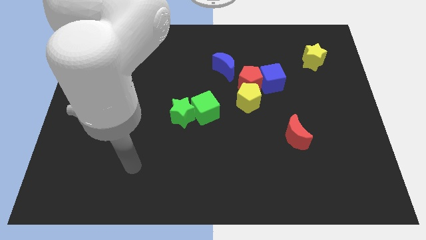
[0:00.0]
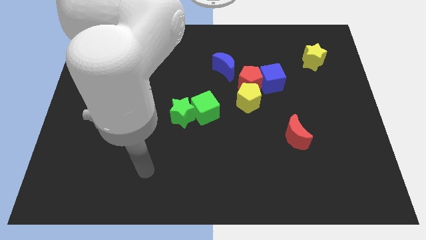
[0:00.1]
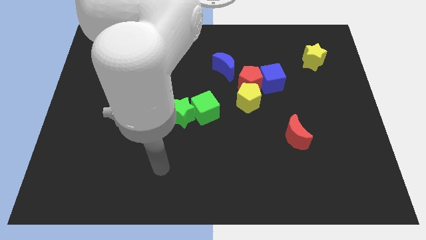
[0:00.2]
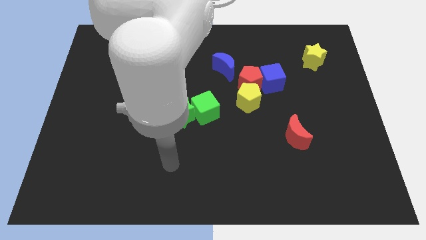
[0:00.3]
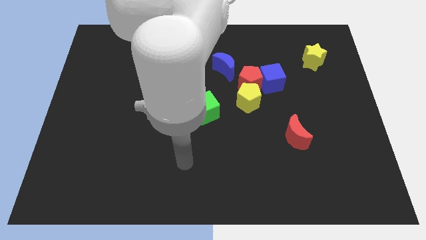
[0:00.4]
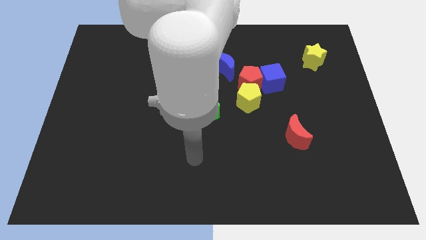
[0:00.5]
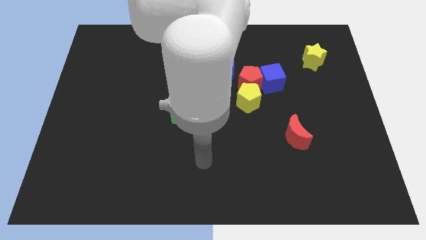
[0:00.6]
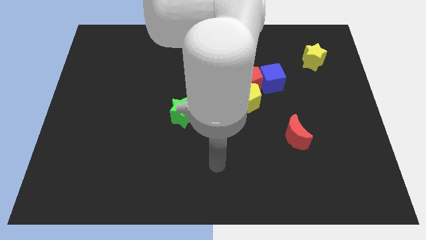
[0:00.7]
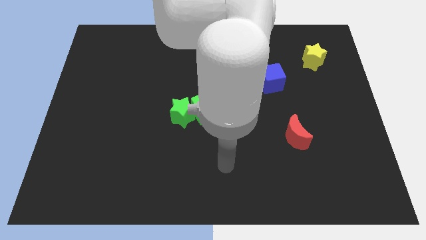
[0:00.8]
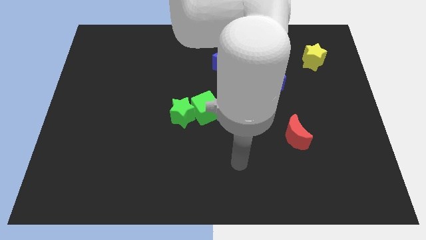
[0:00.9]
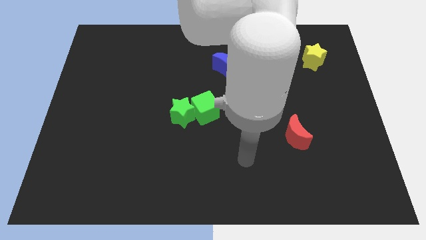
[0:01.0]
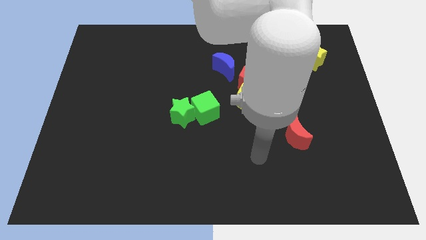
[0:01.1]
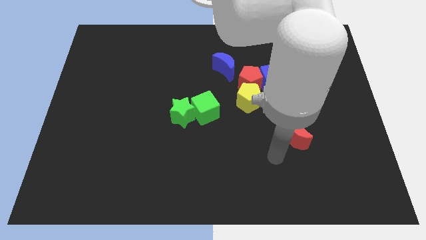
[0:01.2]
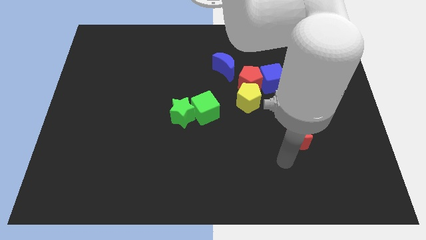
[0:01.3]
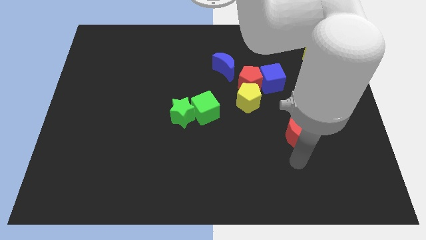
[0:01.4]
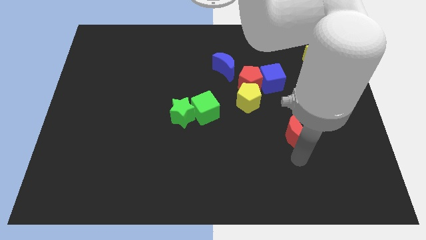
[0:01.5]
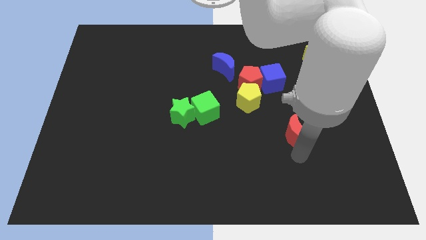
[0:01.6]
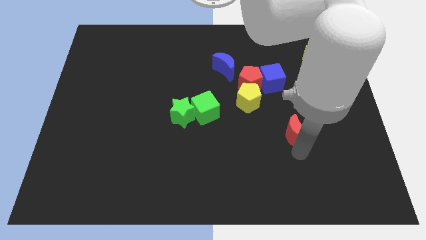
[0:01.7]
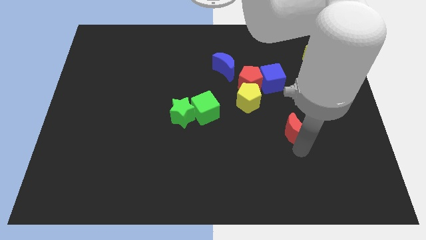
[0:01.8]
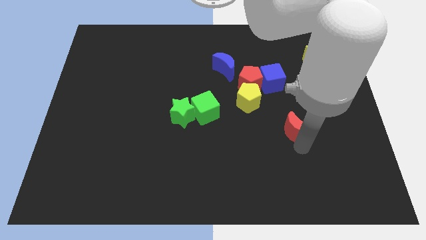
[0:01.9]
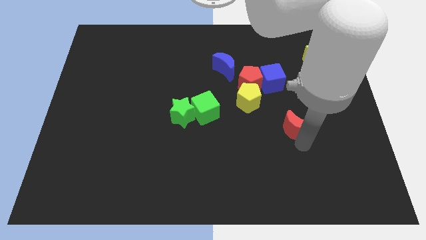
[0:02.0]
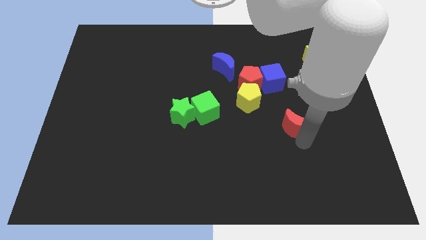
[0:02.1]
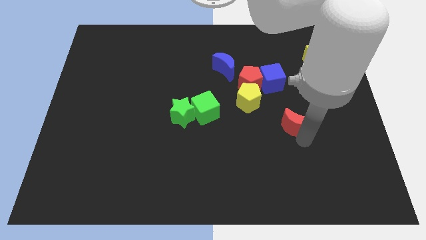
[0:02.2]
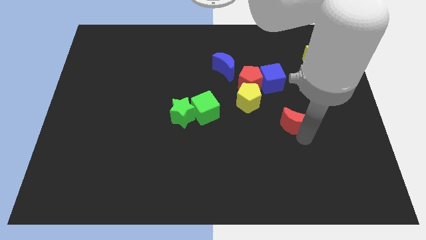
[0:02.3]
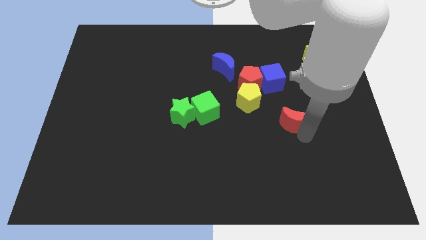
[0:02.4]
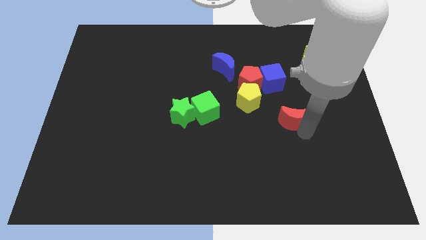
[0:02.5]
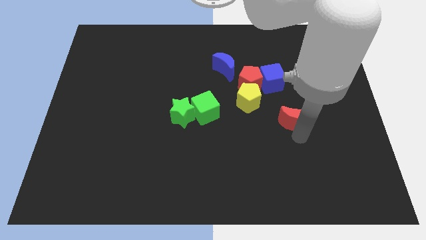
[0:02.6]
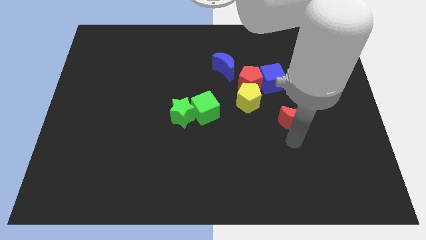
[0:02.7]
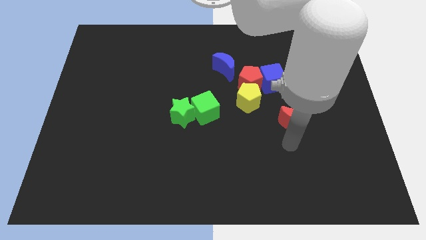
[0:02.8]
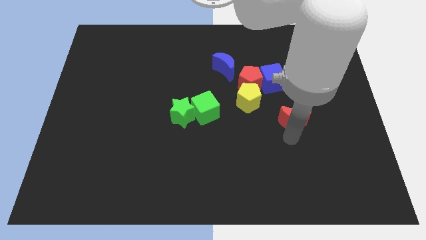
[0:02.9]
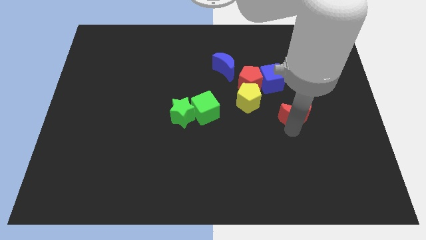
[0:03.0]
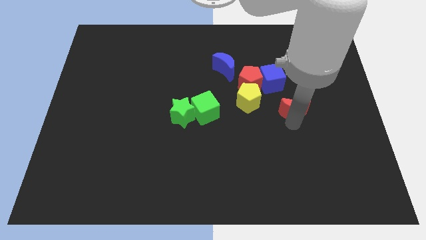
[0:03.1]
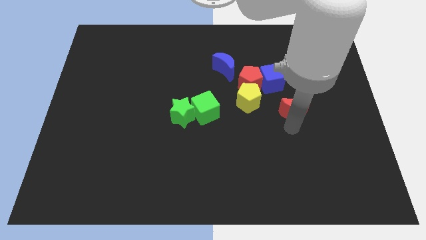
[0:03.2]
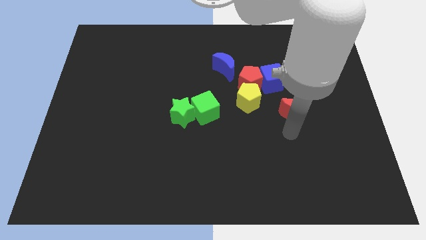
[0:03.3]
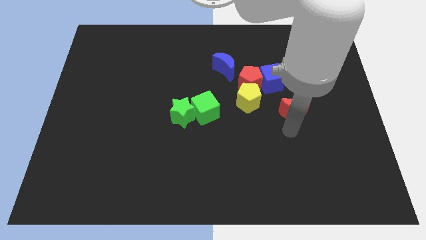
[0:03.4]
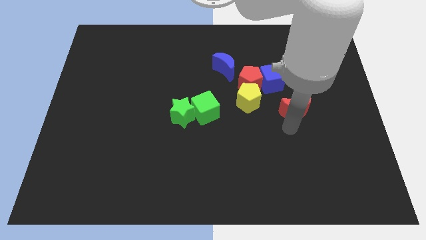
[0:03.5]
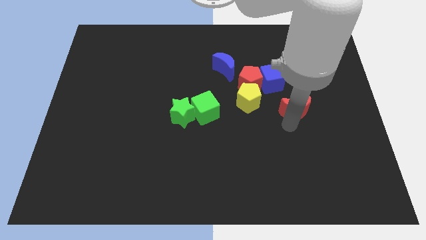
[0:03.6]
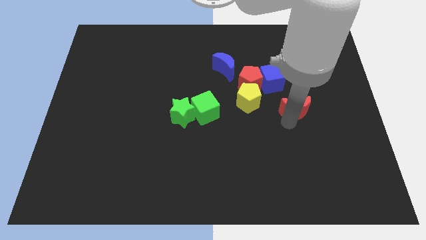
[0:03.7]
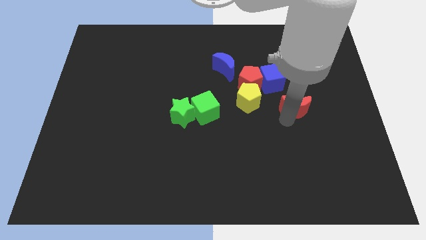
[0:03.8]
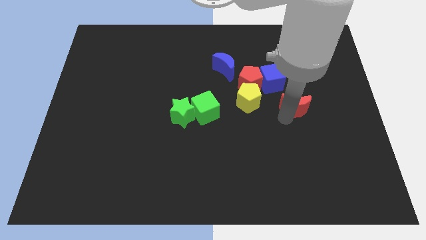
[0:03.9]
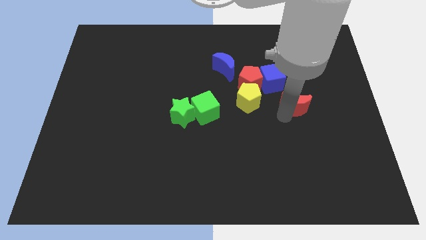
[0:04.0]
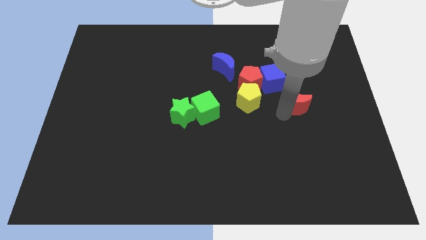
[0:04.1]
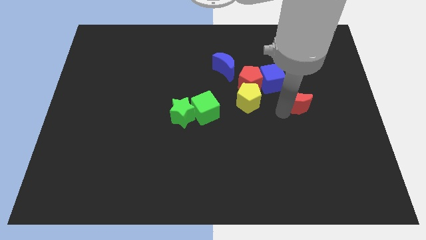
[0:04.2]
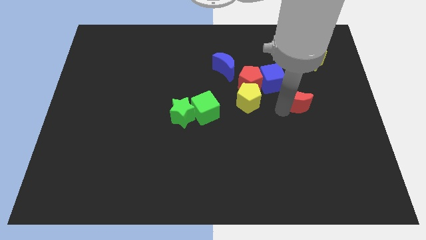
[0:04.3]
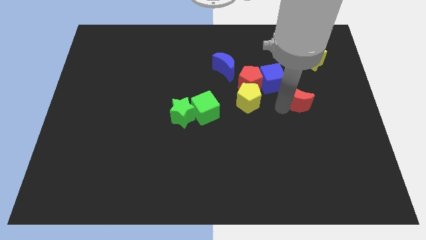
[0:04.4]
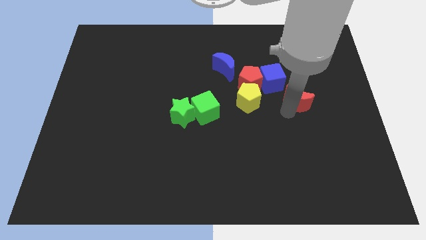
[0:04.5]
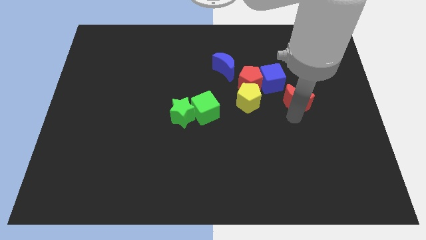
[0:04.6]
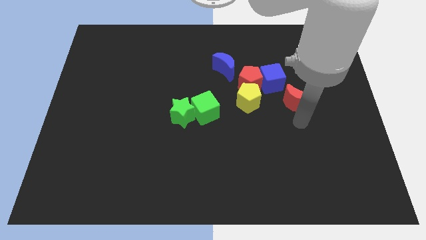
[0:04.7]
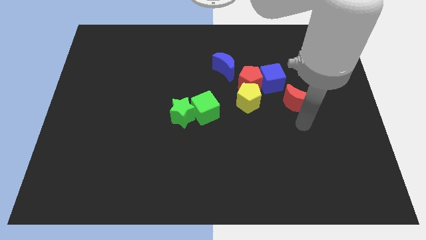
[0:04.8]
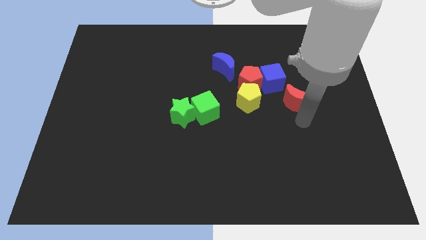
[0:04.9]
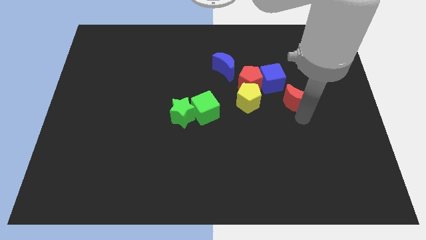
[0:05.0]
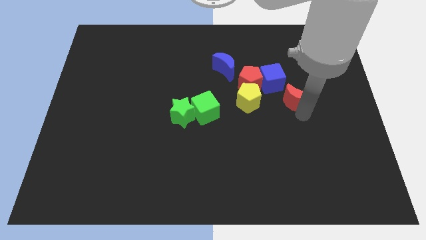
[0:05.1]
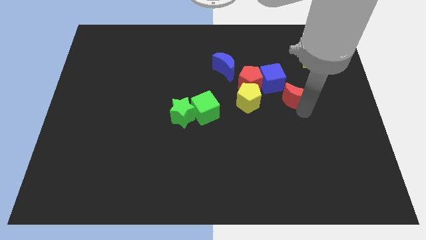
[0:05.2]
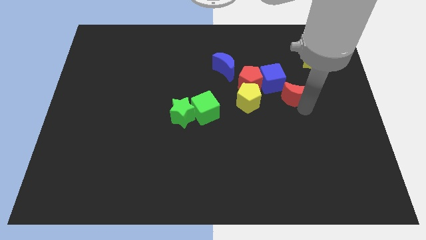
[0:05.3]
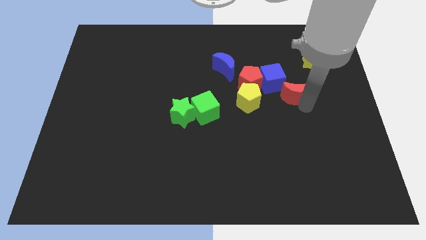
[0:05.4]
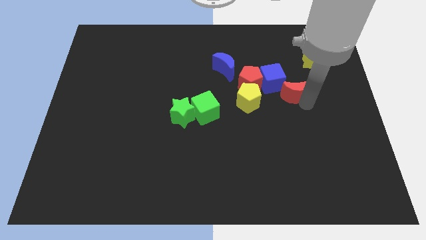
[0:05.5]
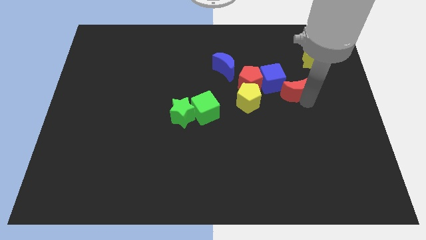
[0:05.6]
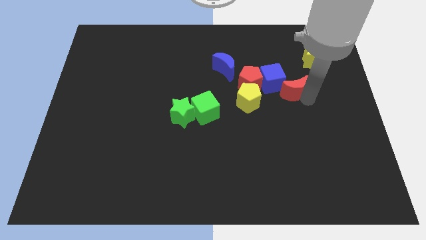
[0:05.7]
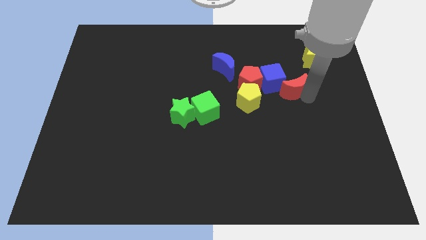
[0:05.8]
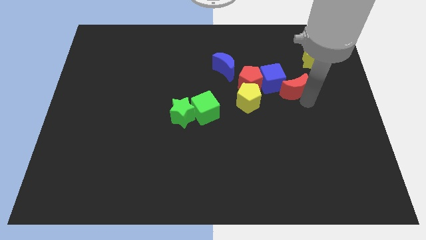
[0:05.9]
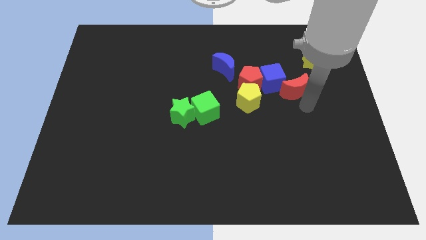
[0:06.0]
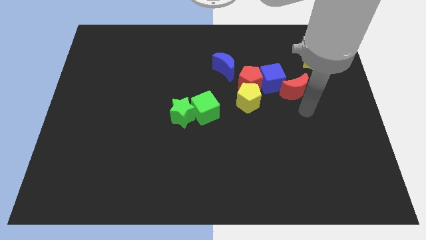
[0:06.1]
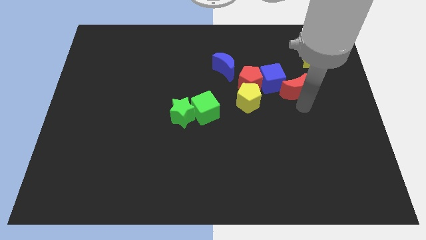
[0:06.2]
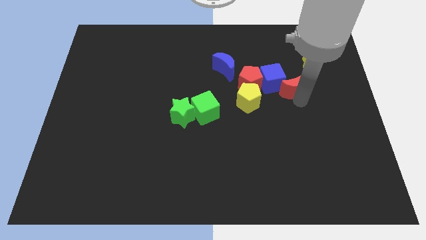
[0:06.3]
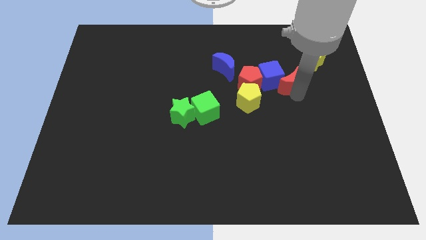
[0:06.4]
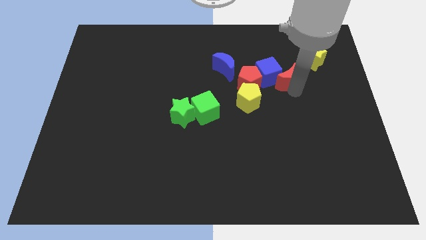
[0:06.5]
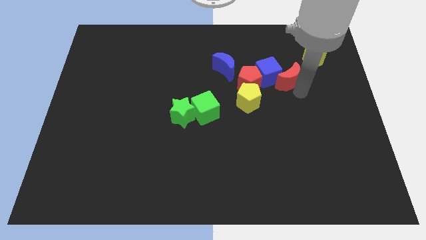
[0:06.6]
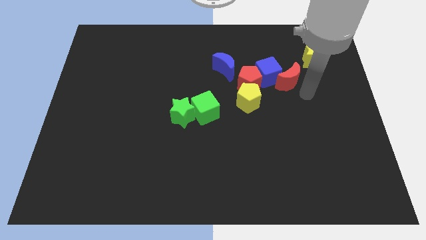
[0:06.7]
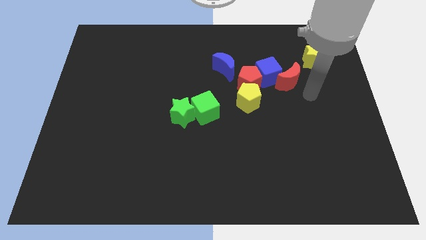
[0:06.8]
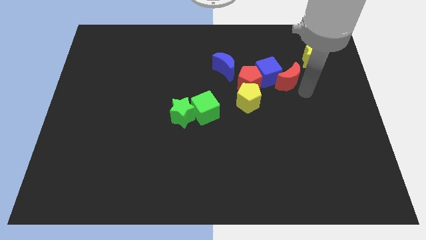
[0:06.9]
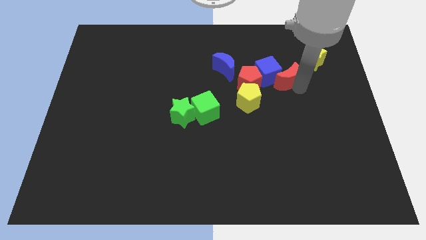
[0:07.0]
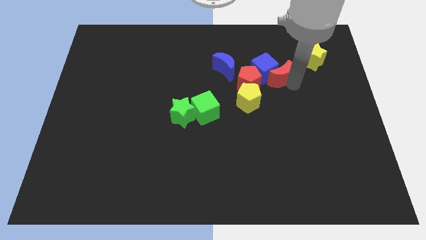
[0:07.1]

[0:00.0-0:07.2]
slide the red moon to the top right side of the red pentagon

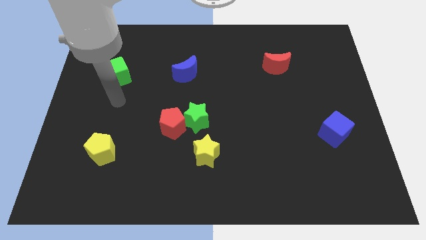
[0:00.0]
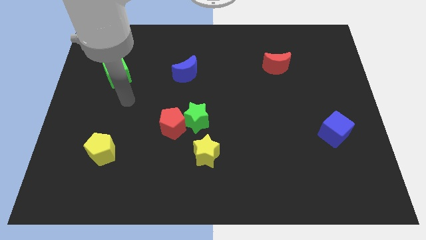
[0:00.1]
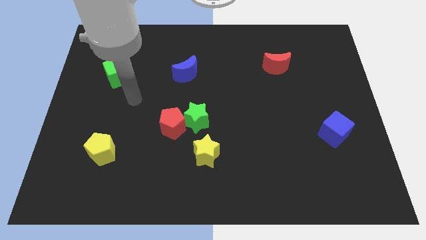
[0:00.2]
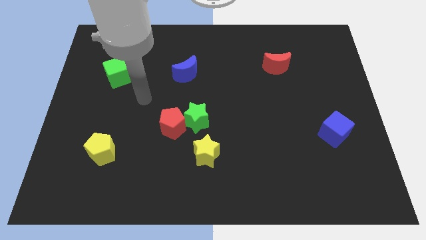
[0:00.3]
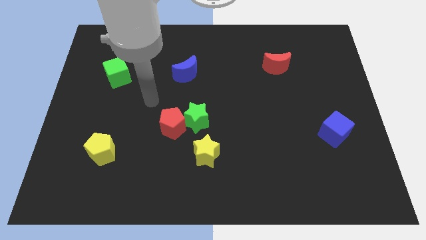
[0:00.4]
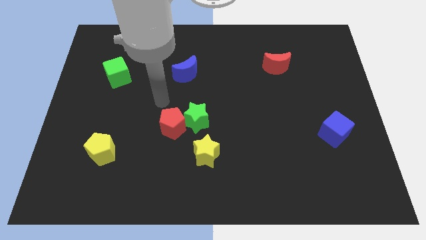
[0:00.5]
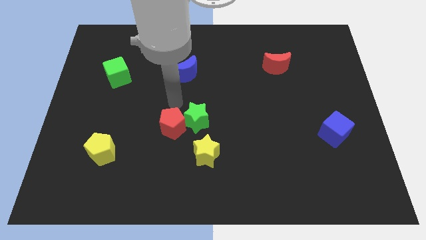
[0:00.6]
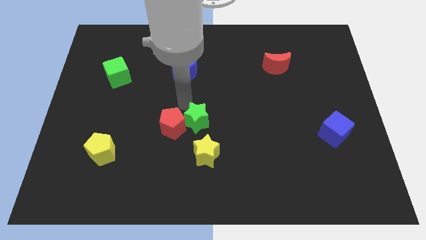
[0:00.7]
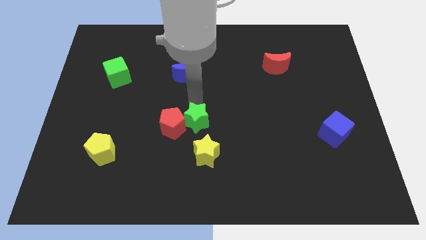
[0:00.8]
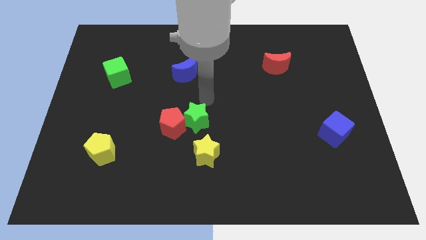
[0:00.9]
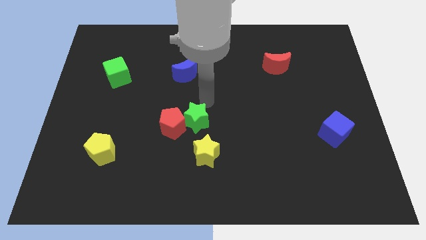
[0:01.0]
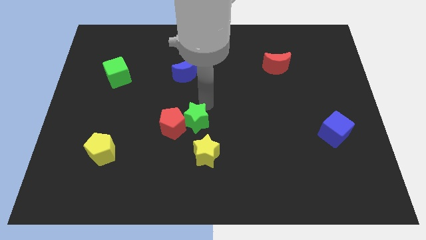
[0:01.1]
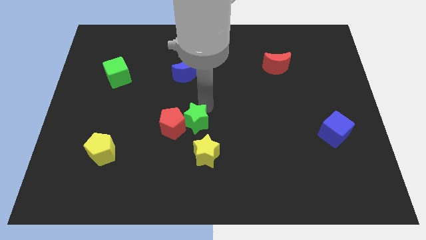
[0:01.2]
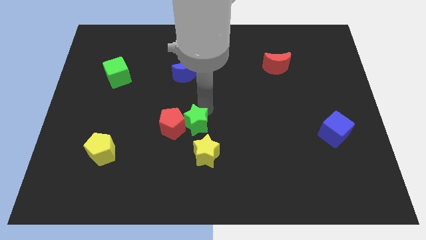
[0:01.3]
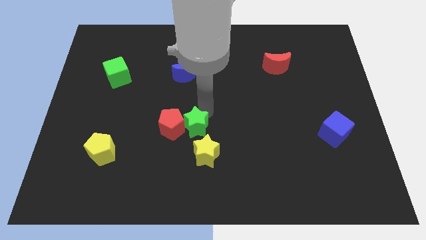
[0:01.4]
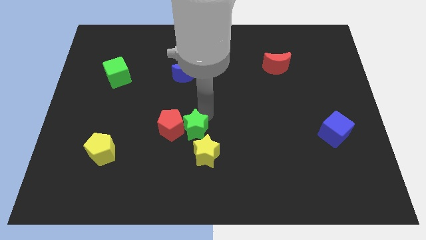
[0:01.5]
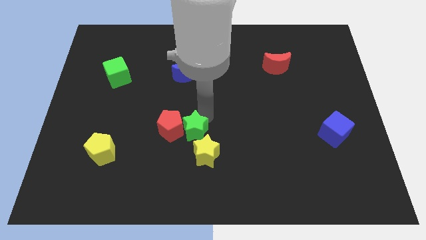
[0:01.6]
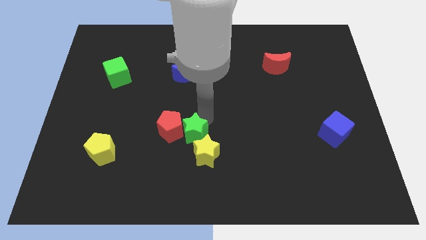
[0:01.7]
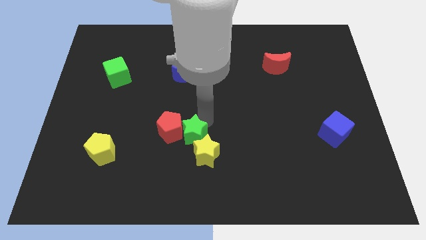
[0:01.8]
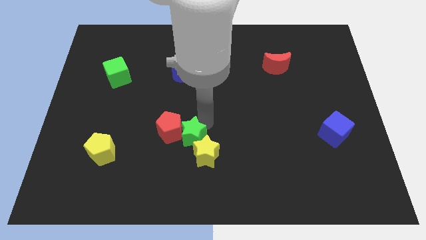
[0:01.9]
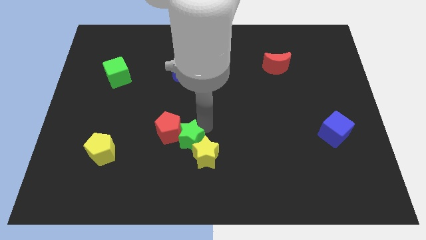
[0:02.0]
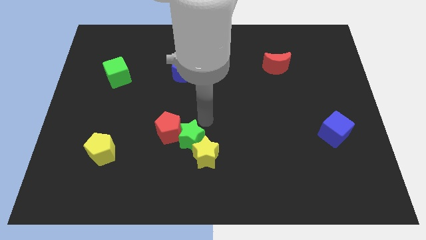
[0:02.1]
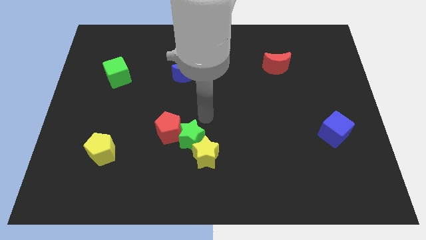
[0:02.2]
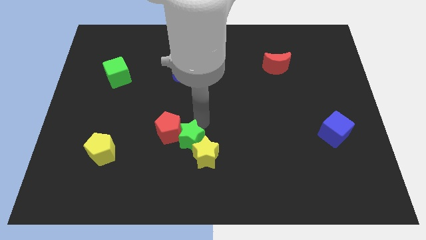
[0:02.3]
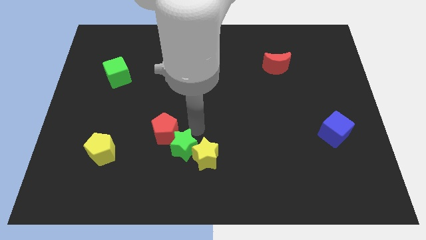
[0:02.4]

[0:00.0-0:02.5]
push the green star to the bottom of the red pentagon
